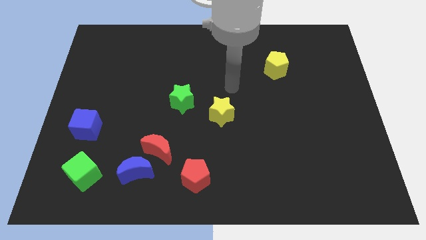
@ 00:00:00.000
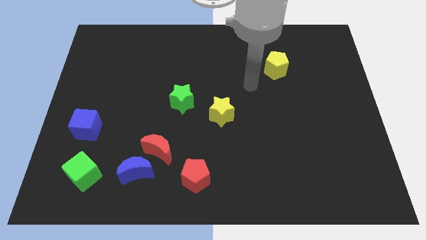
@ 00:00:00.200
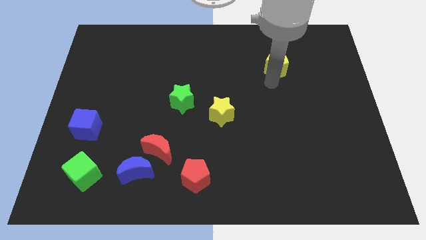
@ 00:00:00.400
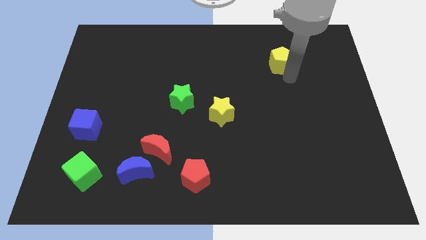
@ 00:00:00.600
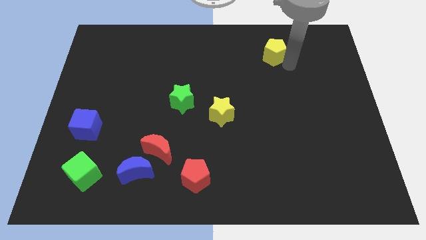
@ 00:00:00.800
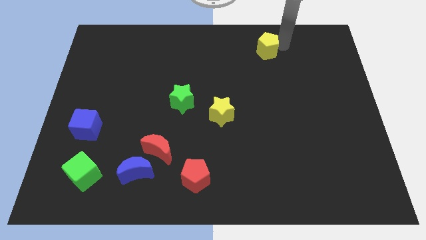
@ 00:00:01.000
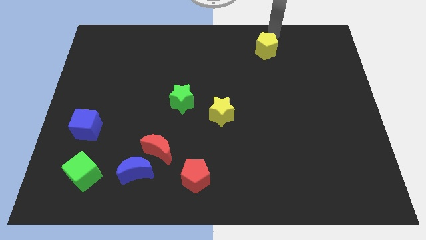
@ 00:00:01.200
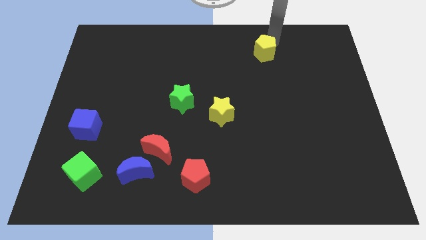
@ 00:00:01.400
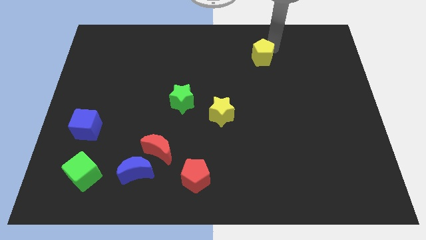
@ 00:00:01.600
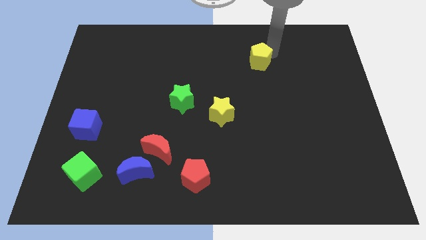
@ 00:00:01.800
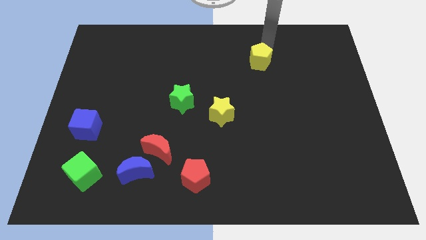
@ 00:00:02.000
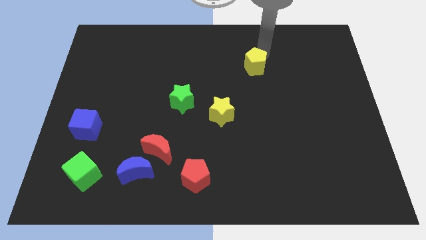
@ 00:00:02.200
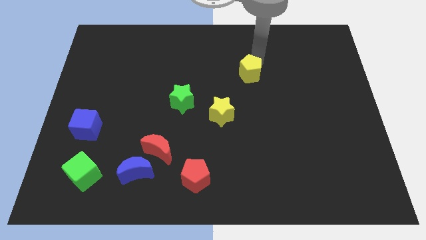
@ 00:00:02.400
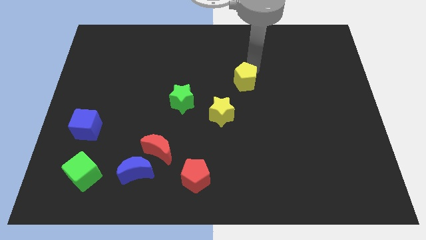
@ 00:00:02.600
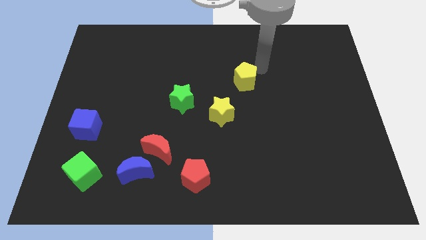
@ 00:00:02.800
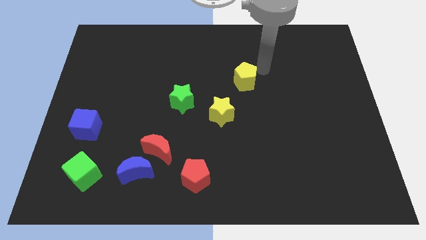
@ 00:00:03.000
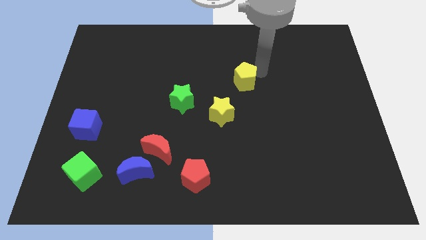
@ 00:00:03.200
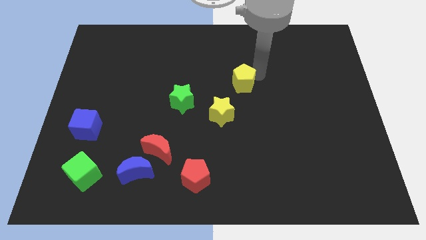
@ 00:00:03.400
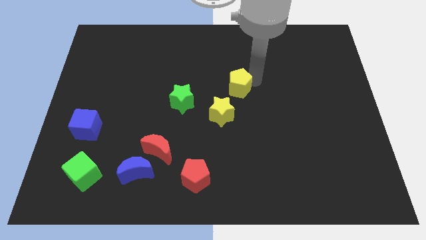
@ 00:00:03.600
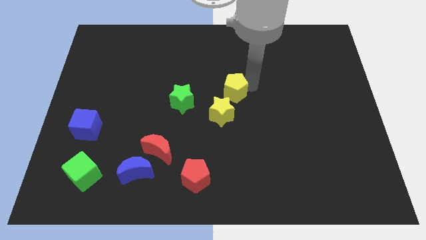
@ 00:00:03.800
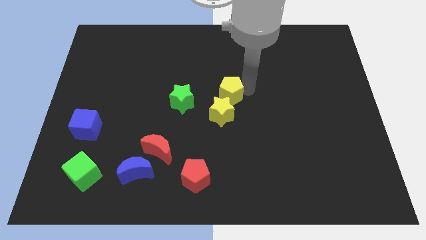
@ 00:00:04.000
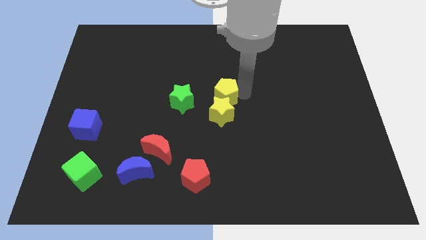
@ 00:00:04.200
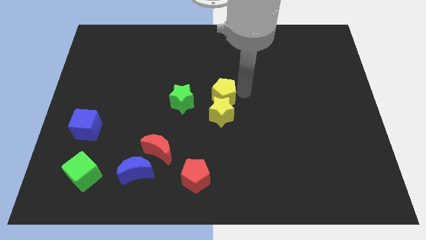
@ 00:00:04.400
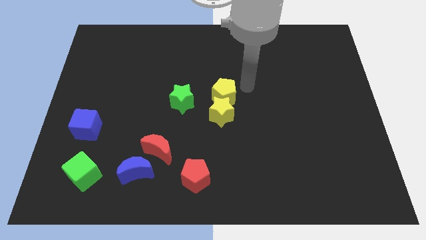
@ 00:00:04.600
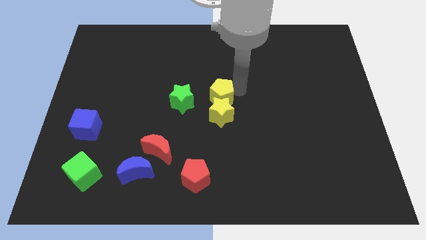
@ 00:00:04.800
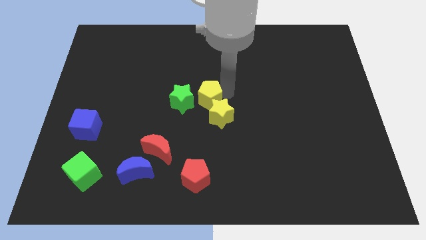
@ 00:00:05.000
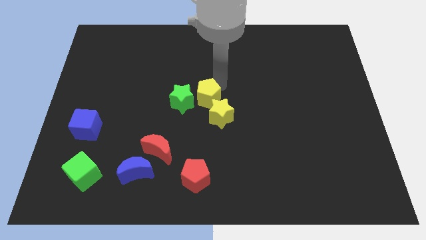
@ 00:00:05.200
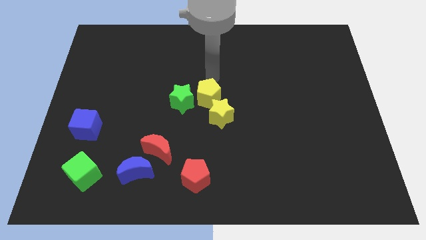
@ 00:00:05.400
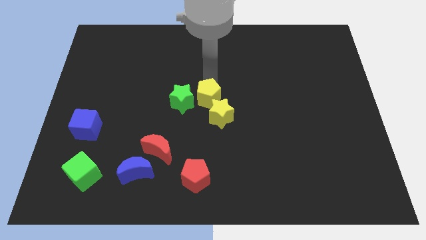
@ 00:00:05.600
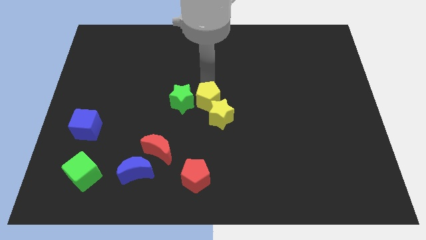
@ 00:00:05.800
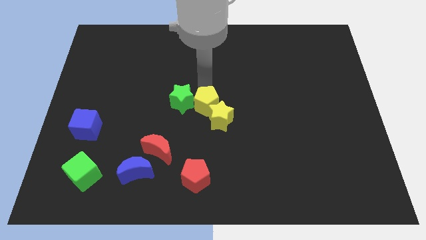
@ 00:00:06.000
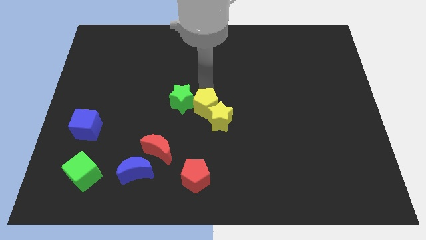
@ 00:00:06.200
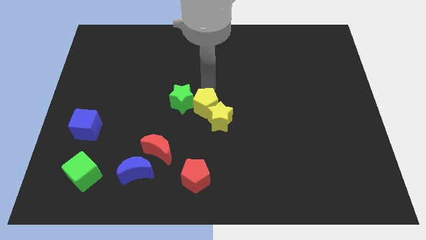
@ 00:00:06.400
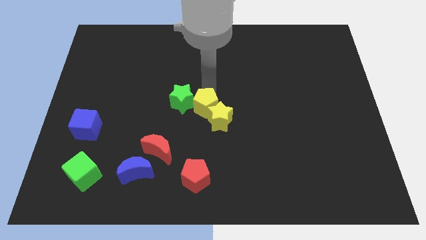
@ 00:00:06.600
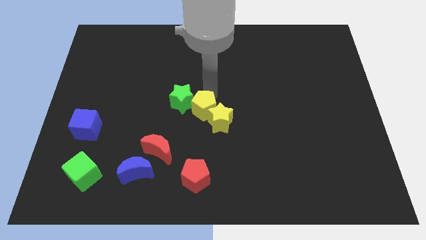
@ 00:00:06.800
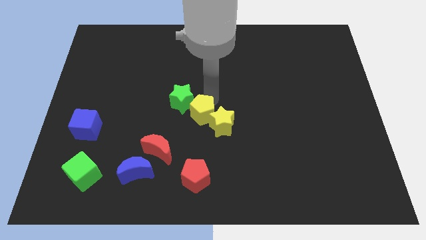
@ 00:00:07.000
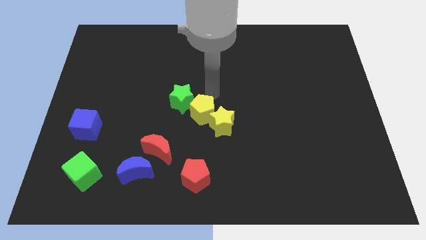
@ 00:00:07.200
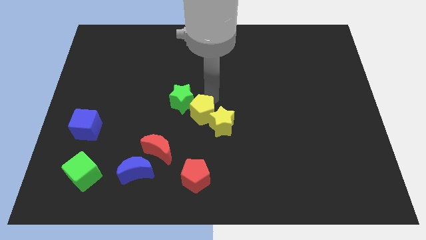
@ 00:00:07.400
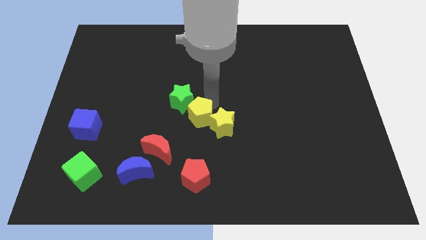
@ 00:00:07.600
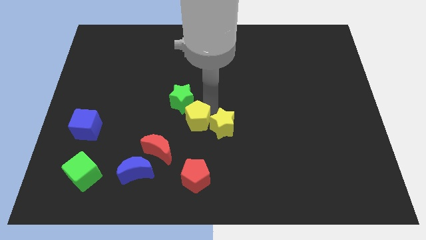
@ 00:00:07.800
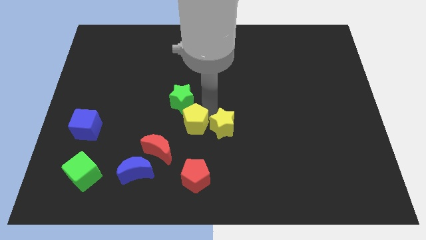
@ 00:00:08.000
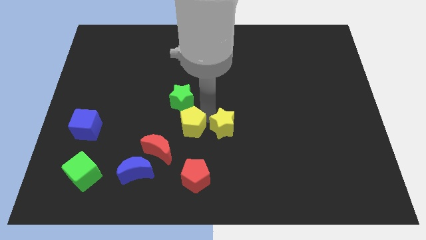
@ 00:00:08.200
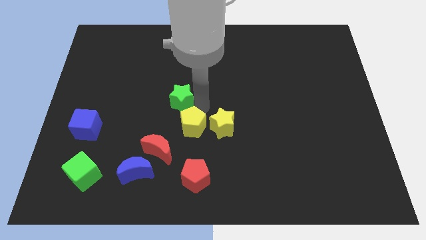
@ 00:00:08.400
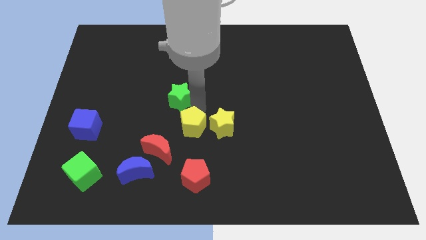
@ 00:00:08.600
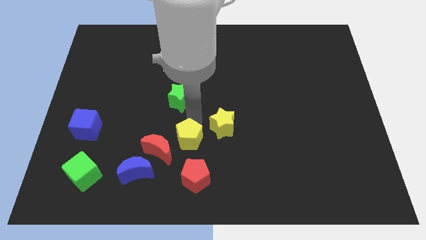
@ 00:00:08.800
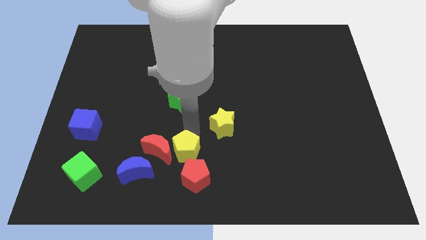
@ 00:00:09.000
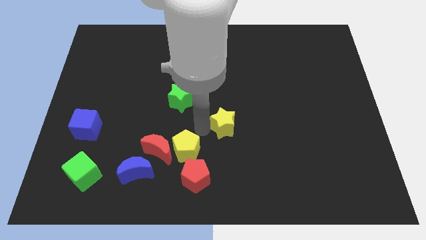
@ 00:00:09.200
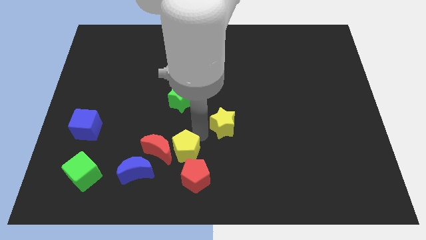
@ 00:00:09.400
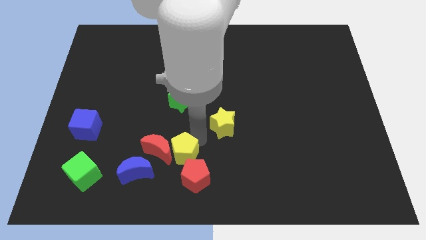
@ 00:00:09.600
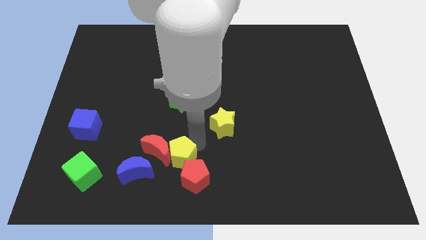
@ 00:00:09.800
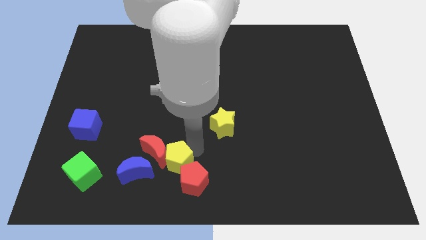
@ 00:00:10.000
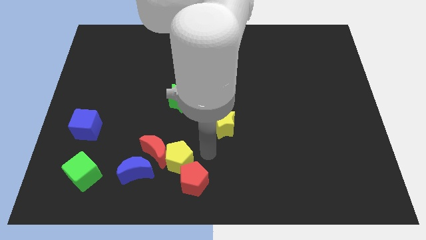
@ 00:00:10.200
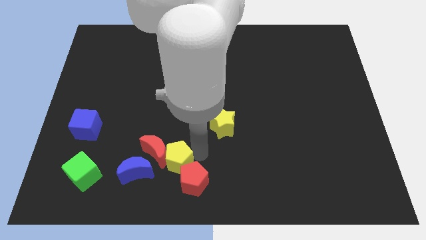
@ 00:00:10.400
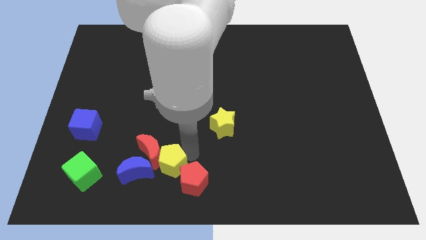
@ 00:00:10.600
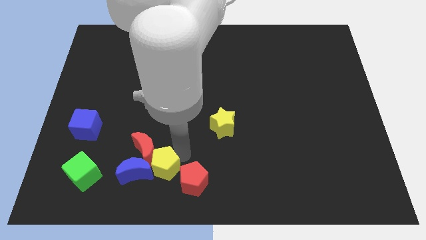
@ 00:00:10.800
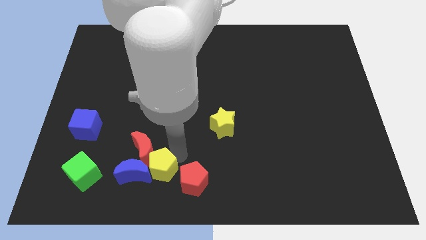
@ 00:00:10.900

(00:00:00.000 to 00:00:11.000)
push the yellow pentagon to the right side of the green cube
